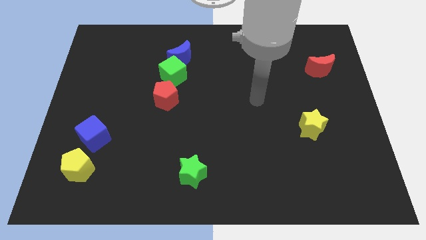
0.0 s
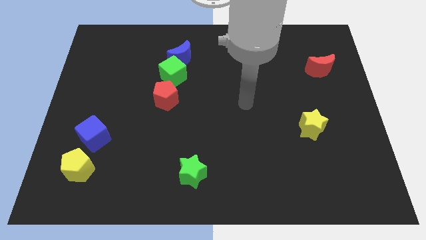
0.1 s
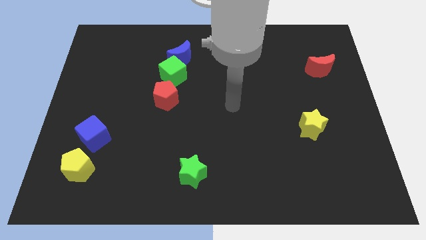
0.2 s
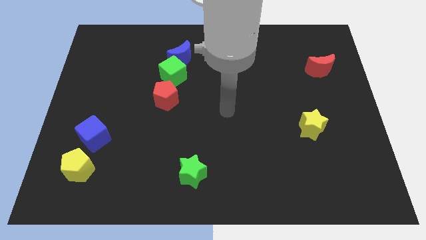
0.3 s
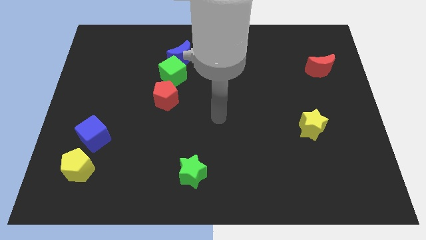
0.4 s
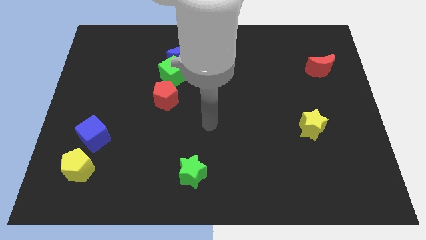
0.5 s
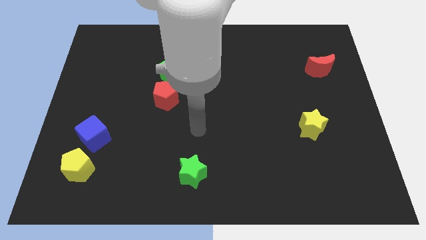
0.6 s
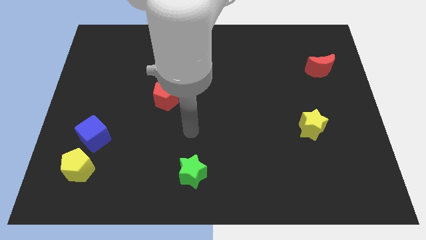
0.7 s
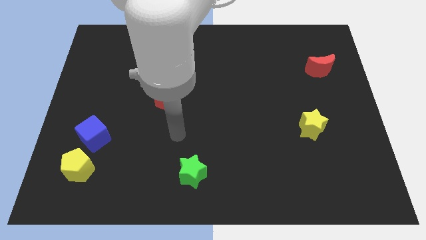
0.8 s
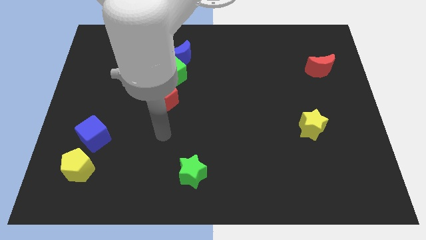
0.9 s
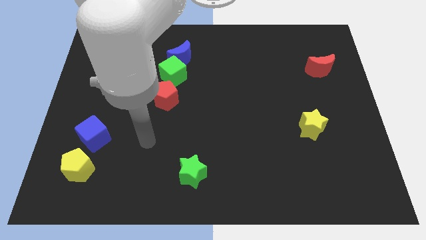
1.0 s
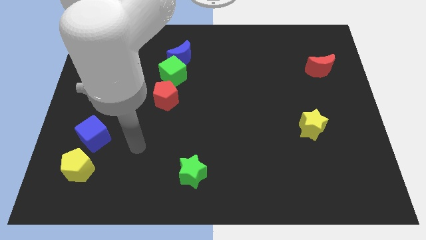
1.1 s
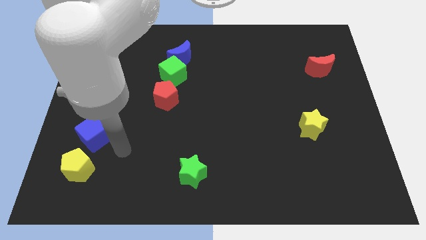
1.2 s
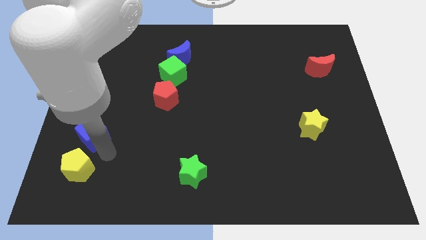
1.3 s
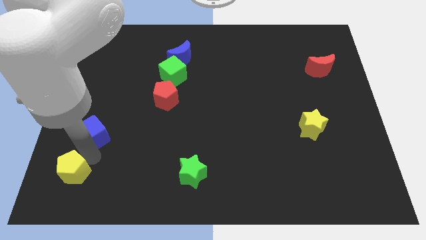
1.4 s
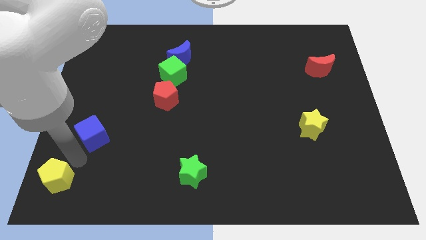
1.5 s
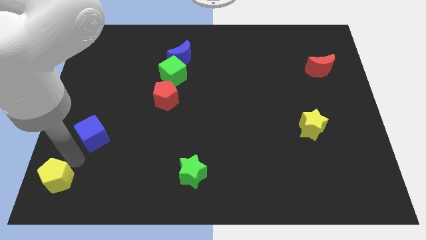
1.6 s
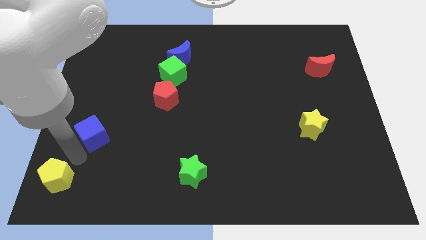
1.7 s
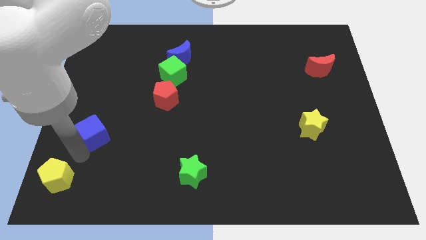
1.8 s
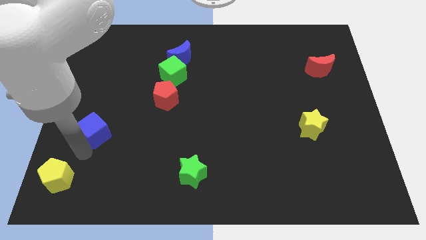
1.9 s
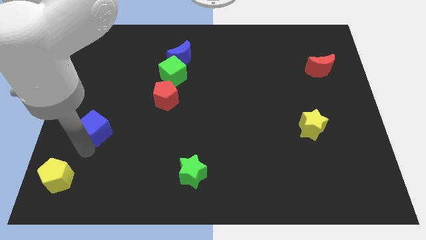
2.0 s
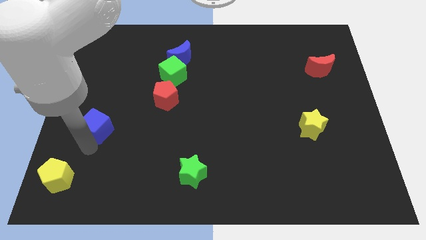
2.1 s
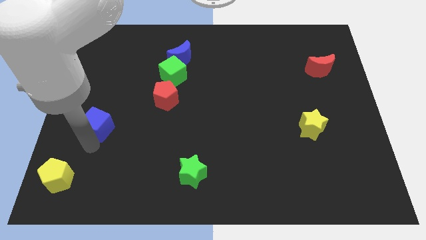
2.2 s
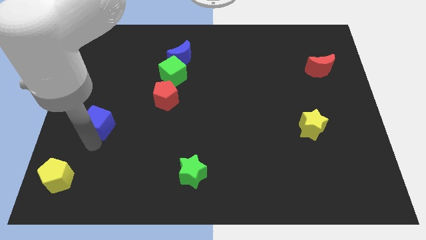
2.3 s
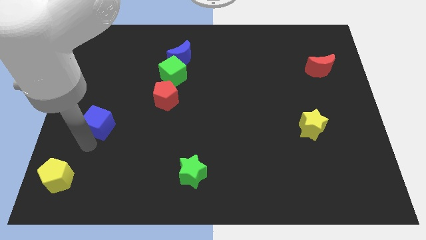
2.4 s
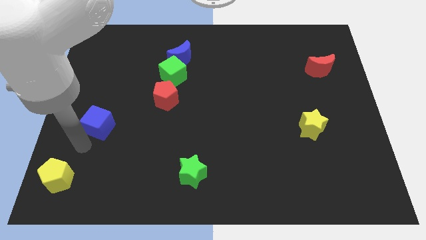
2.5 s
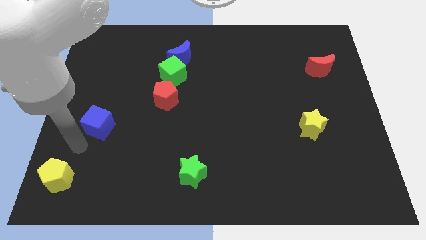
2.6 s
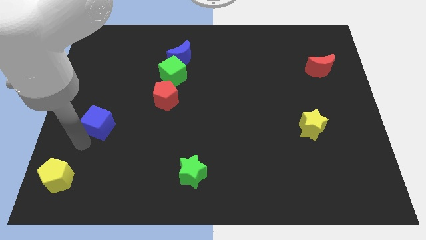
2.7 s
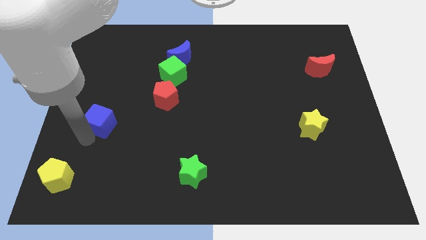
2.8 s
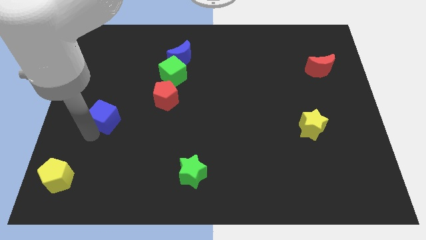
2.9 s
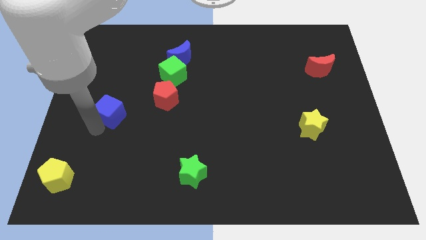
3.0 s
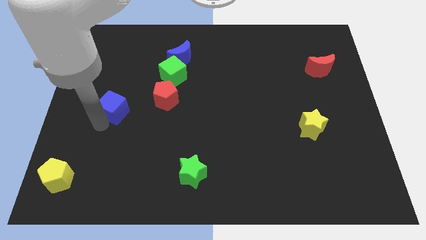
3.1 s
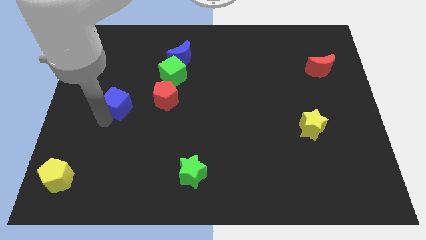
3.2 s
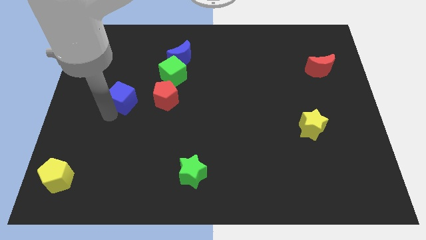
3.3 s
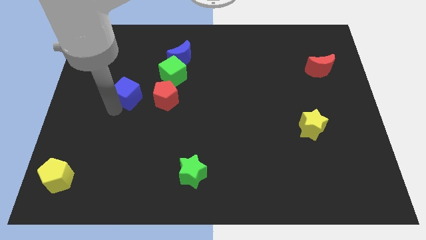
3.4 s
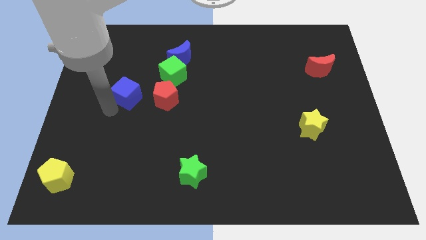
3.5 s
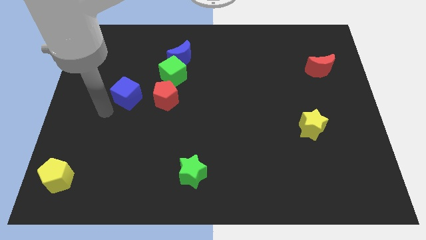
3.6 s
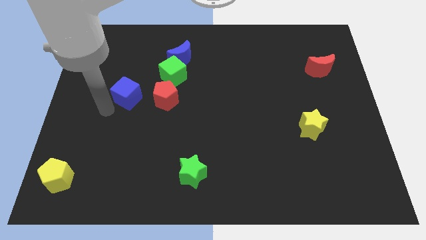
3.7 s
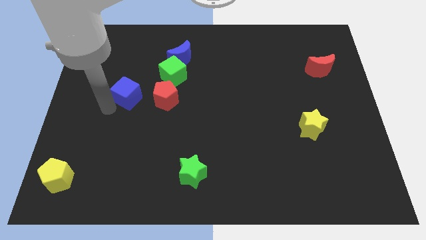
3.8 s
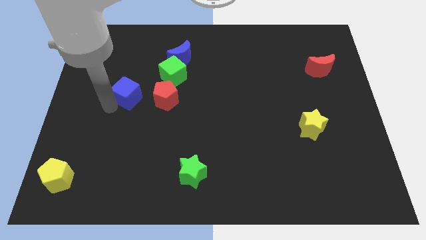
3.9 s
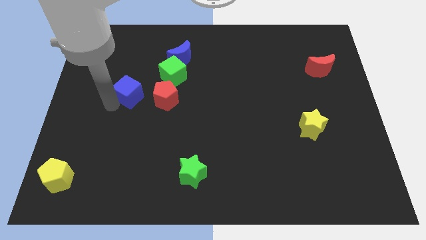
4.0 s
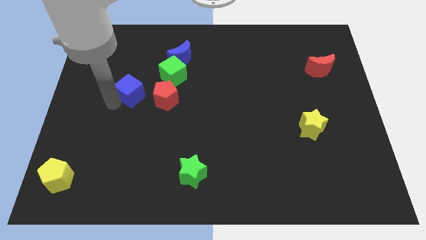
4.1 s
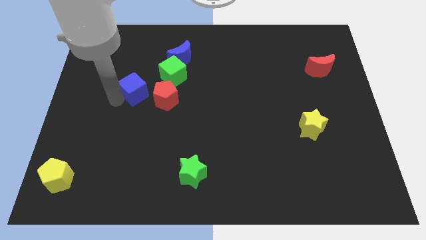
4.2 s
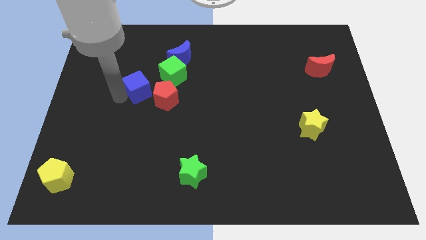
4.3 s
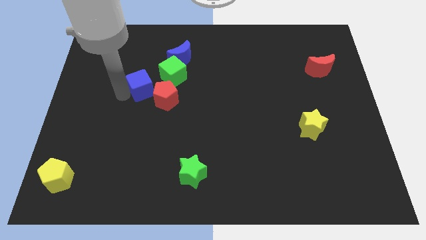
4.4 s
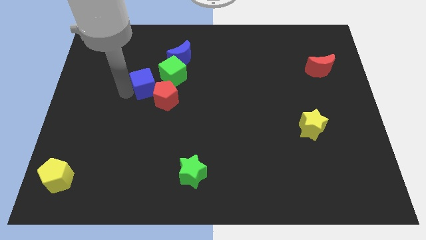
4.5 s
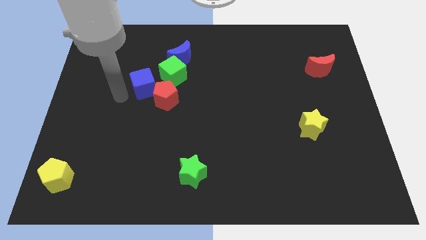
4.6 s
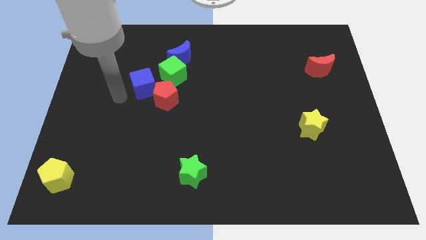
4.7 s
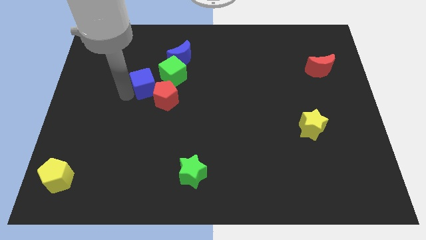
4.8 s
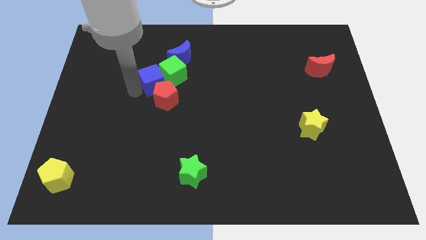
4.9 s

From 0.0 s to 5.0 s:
put the blue cube to the green cube

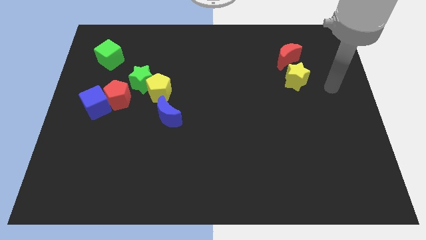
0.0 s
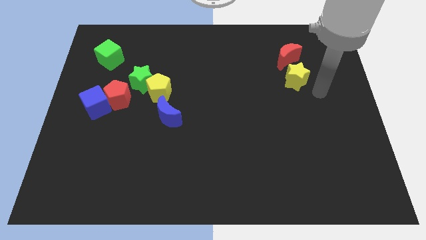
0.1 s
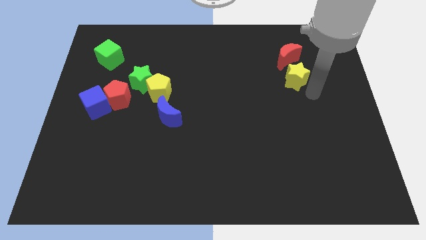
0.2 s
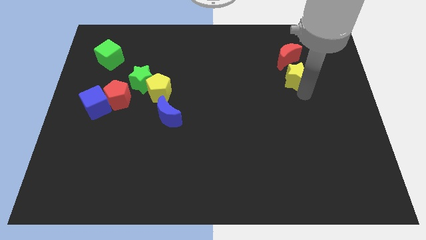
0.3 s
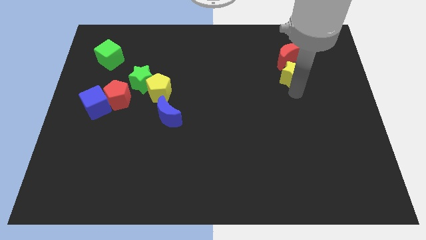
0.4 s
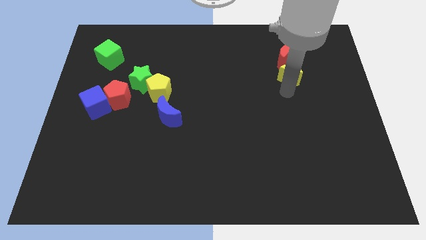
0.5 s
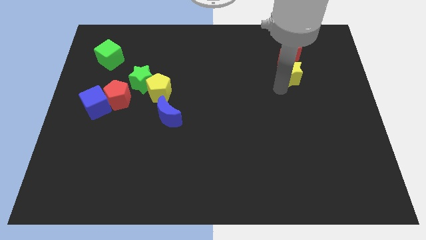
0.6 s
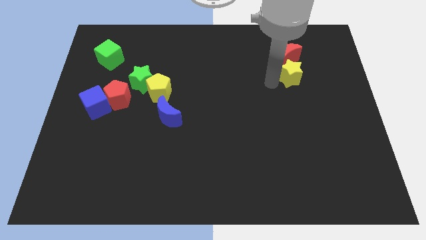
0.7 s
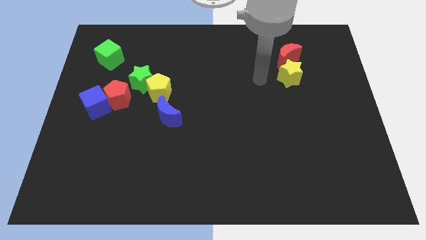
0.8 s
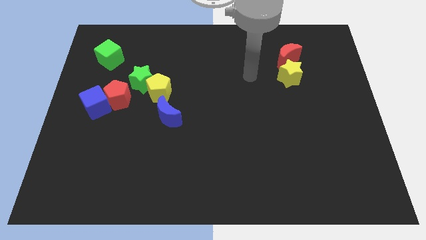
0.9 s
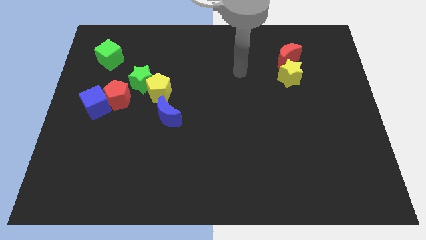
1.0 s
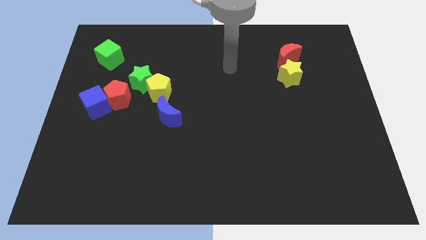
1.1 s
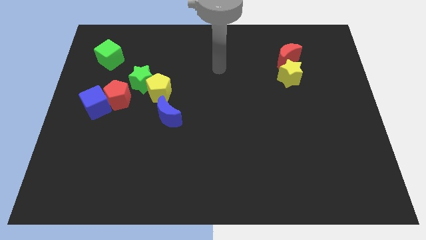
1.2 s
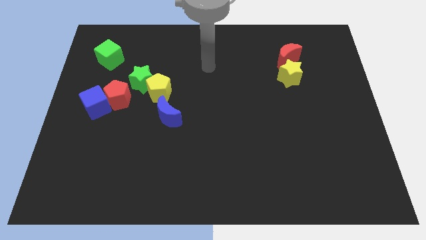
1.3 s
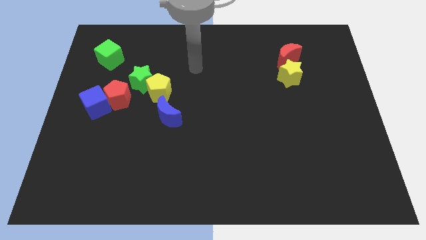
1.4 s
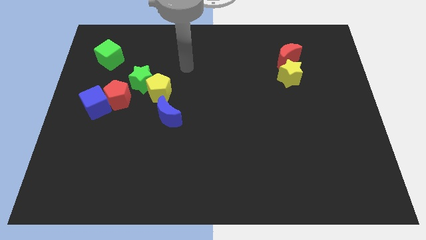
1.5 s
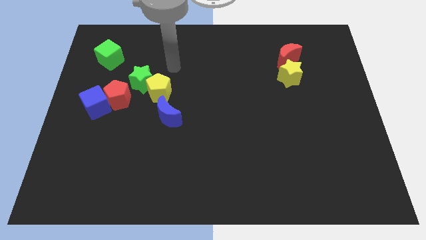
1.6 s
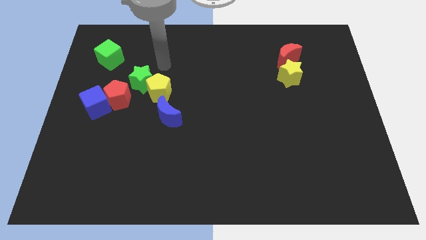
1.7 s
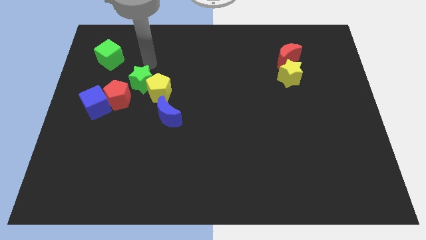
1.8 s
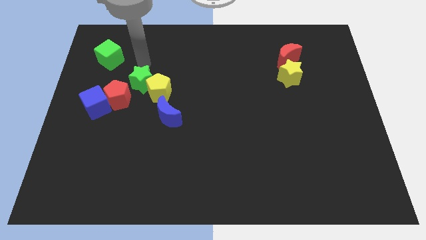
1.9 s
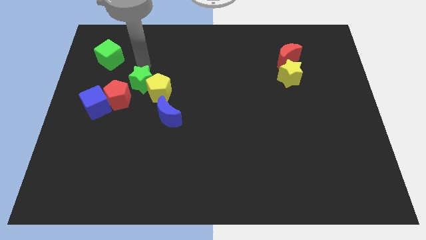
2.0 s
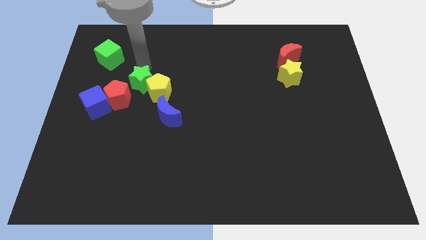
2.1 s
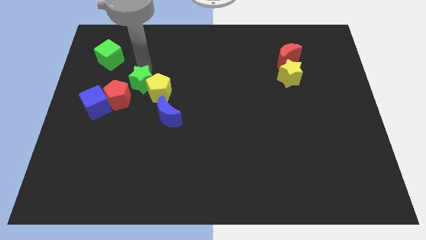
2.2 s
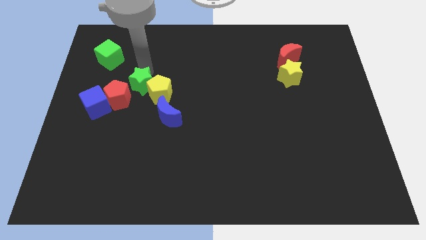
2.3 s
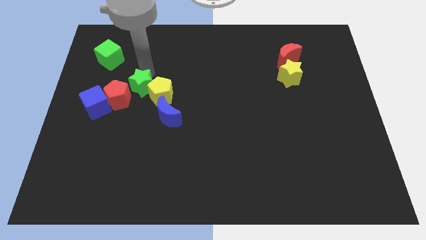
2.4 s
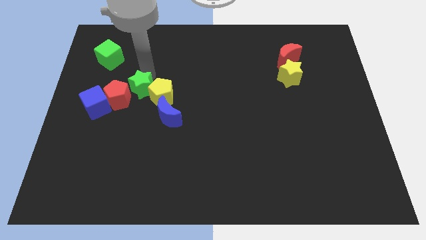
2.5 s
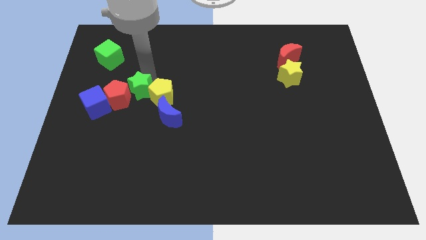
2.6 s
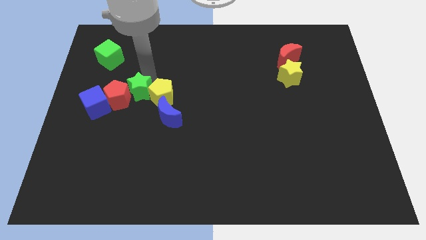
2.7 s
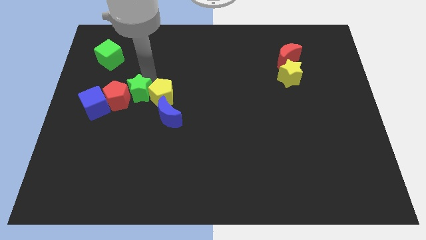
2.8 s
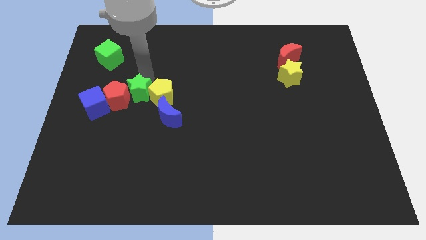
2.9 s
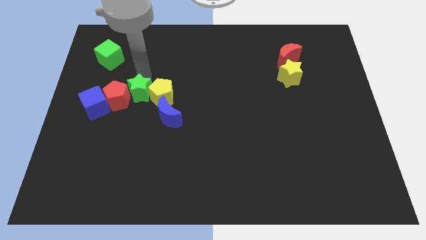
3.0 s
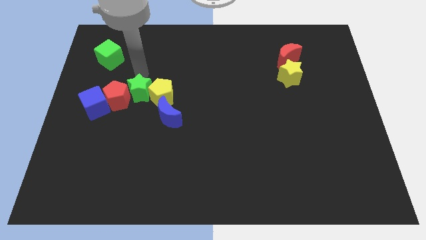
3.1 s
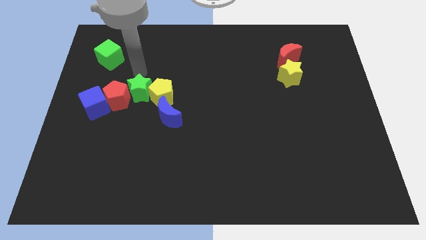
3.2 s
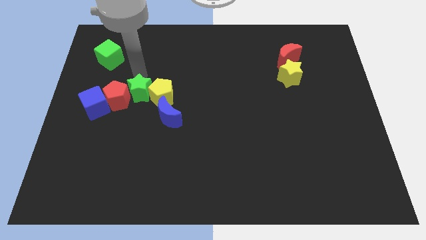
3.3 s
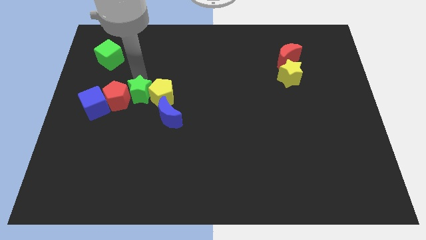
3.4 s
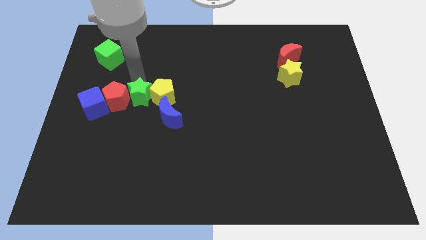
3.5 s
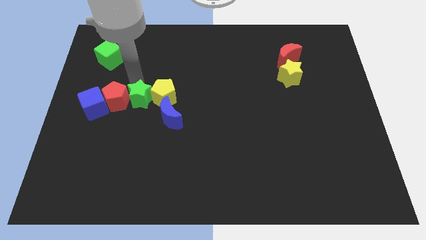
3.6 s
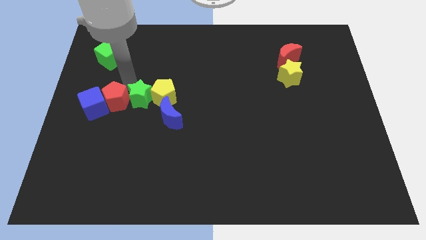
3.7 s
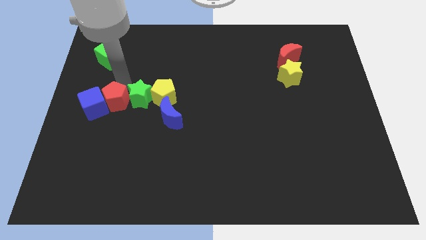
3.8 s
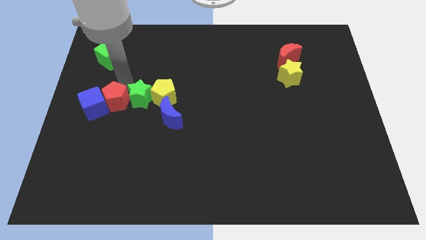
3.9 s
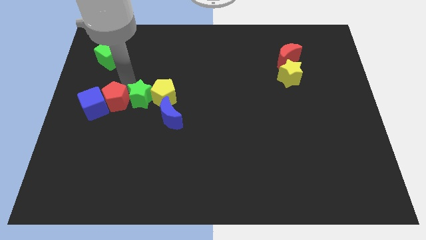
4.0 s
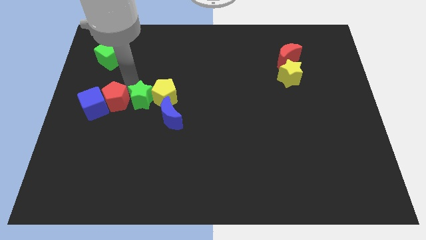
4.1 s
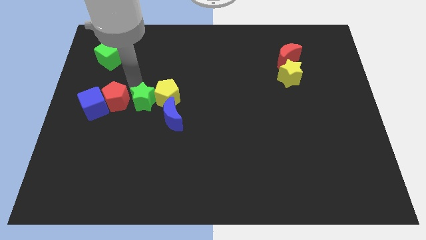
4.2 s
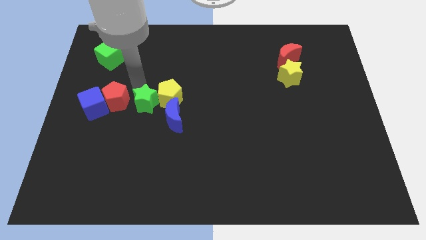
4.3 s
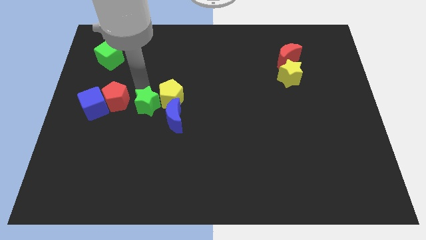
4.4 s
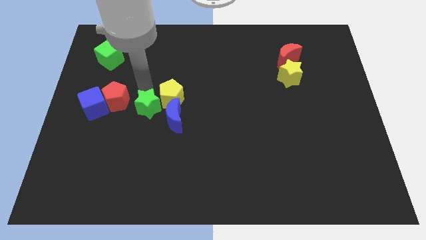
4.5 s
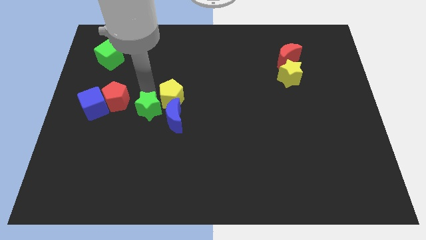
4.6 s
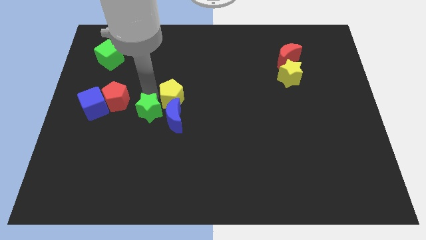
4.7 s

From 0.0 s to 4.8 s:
put the green star to the blue moon
